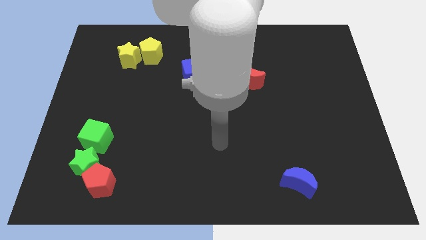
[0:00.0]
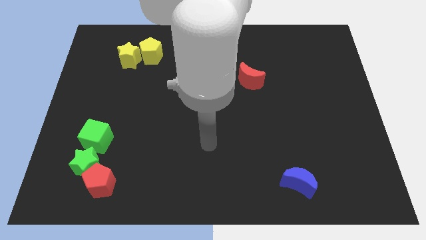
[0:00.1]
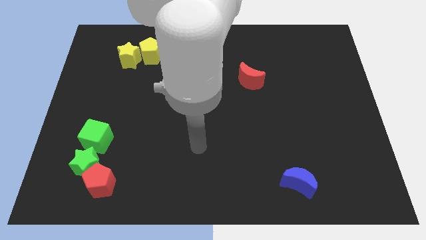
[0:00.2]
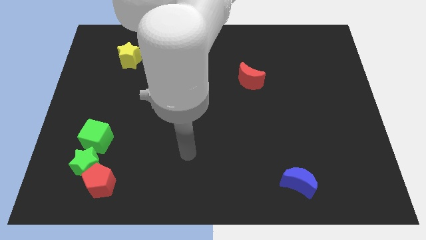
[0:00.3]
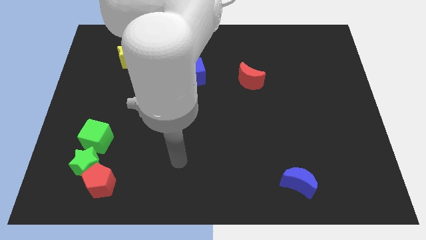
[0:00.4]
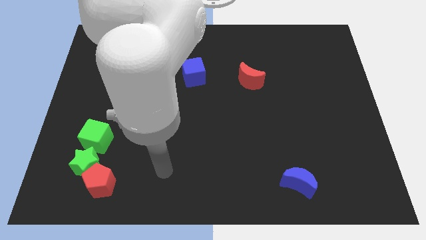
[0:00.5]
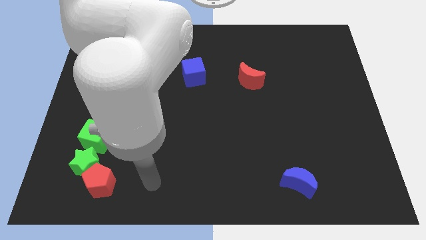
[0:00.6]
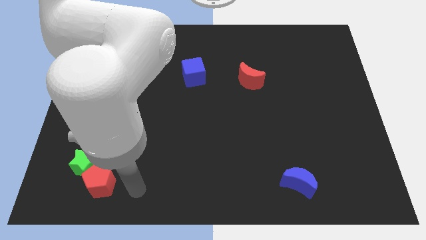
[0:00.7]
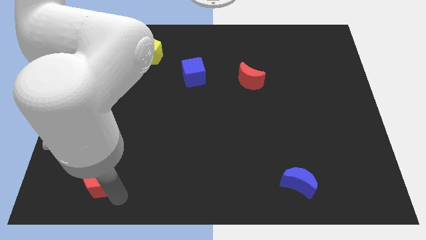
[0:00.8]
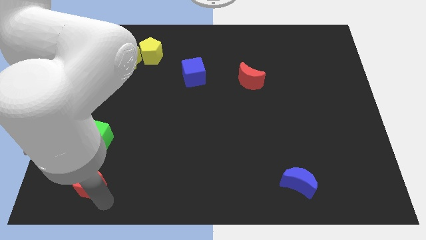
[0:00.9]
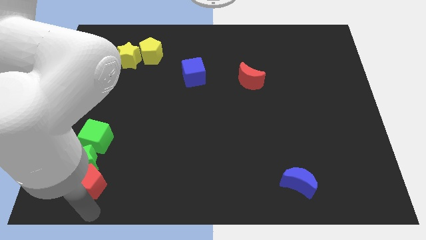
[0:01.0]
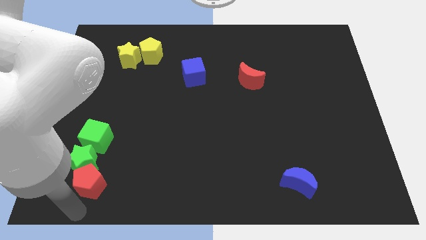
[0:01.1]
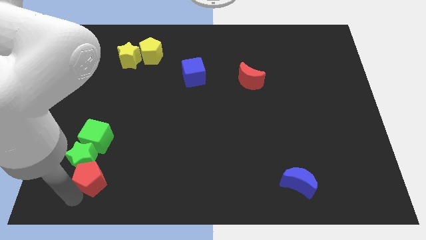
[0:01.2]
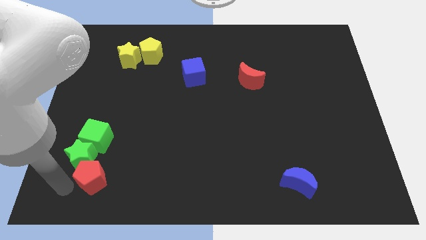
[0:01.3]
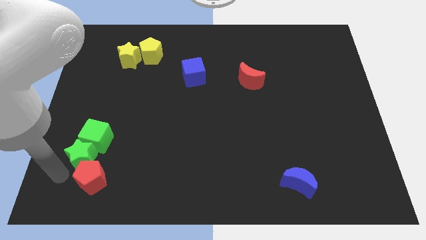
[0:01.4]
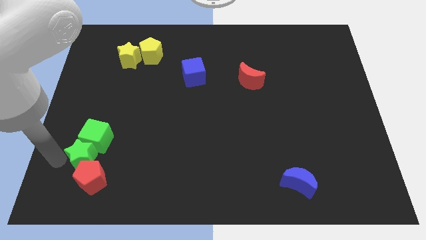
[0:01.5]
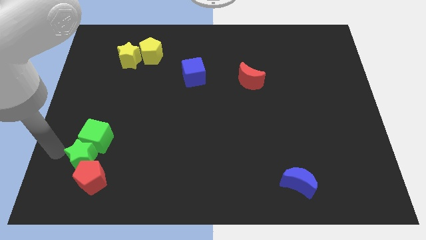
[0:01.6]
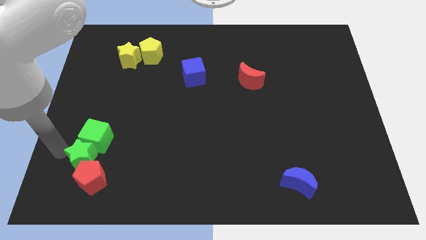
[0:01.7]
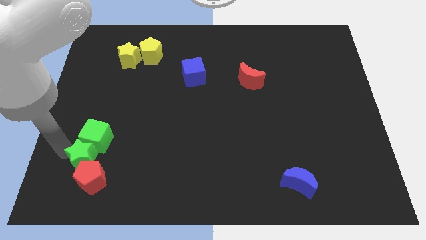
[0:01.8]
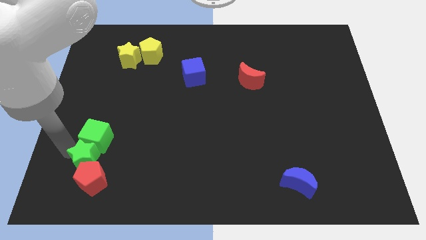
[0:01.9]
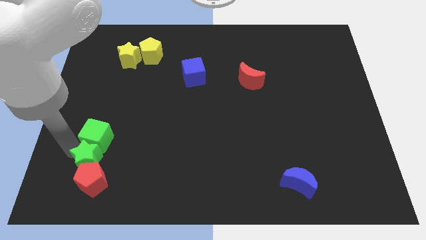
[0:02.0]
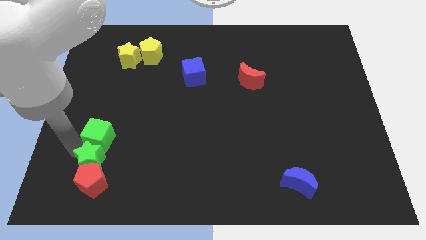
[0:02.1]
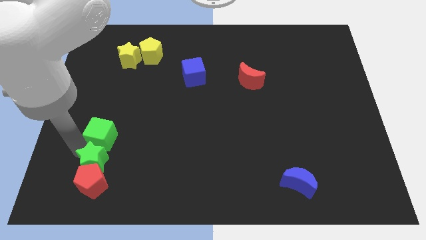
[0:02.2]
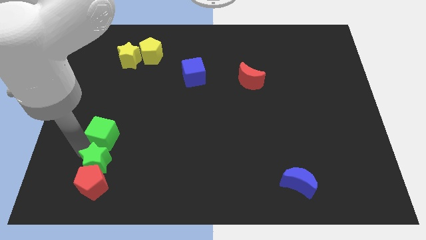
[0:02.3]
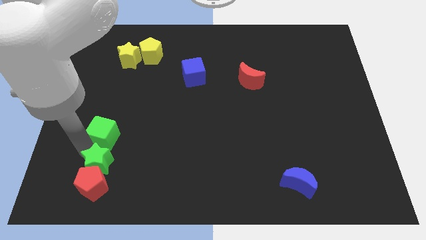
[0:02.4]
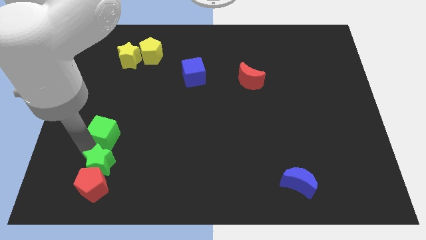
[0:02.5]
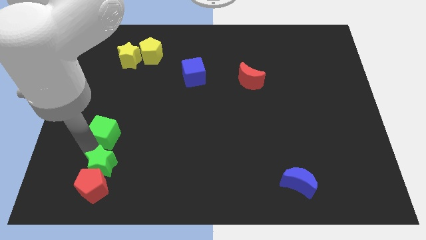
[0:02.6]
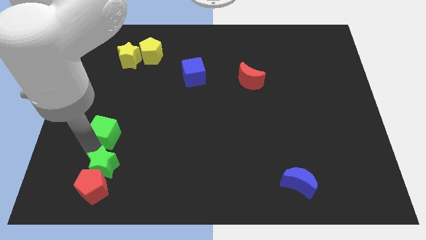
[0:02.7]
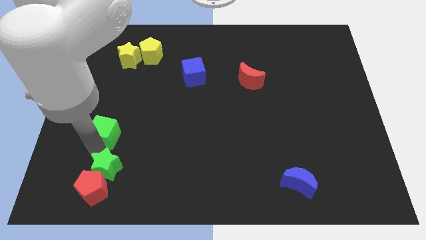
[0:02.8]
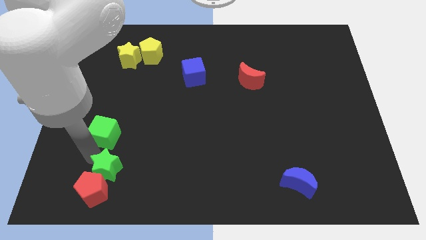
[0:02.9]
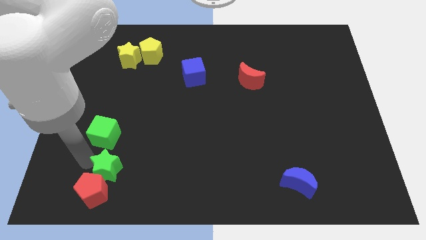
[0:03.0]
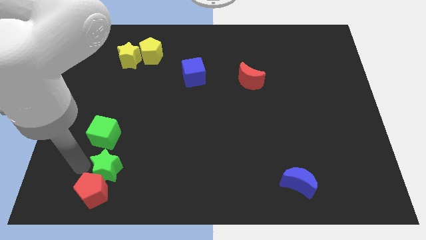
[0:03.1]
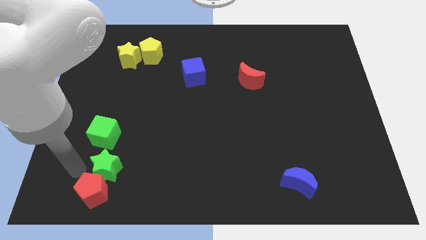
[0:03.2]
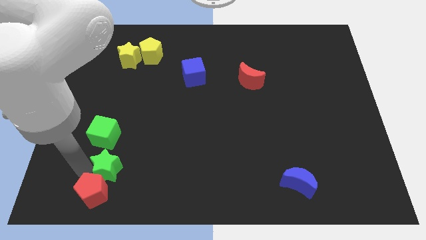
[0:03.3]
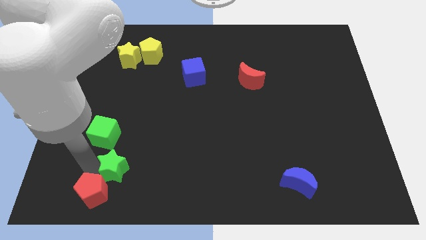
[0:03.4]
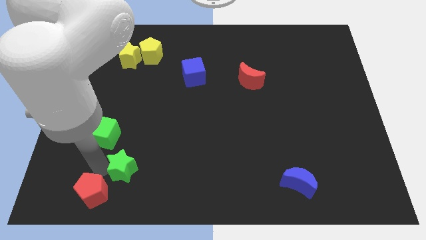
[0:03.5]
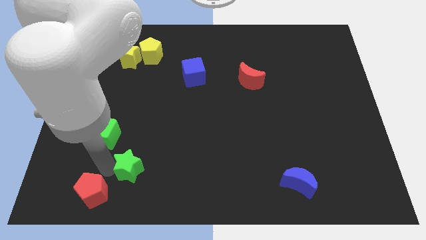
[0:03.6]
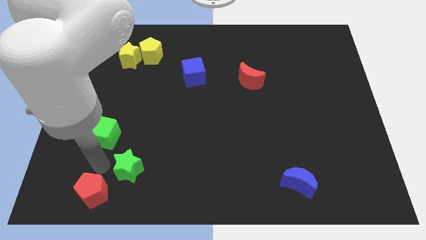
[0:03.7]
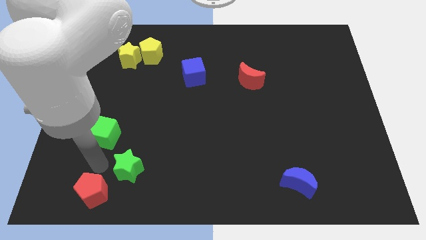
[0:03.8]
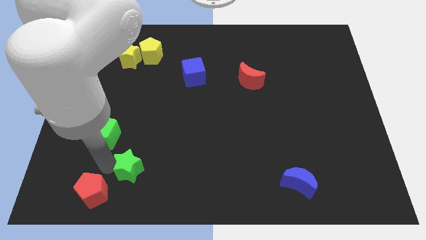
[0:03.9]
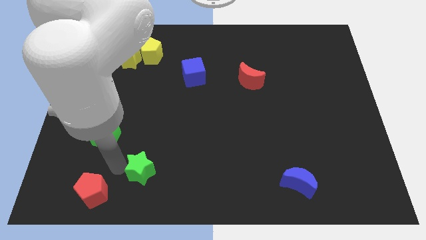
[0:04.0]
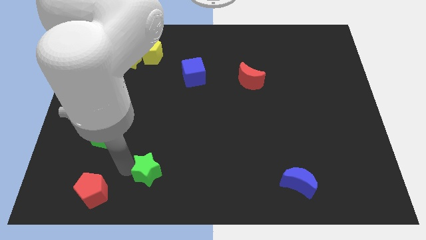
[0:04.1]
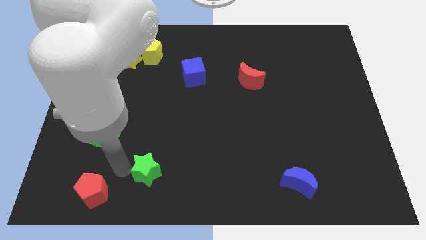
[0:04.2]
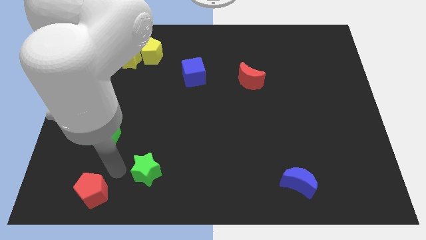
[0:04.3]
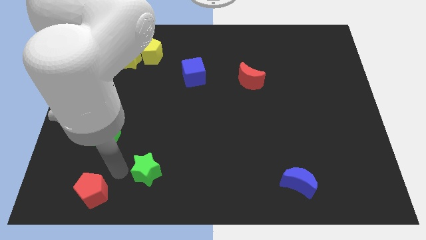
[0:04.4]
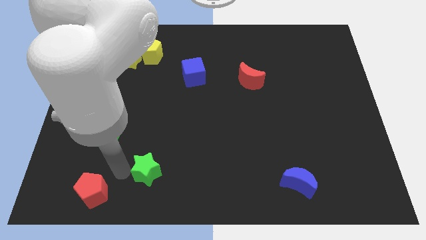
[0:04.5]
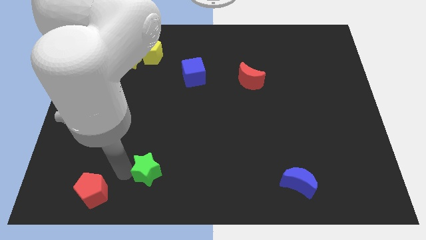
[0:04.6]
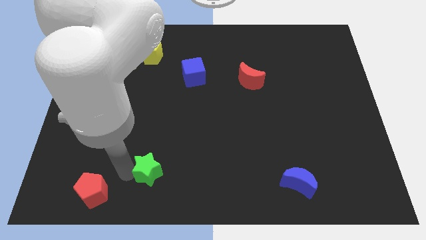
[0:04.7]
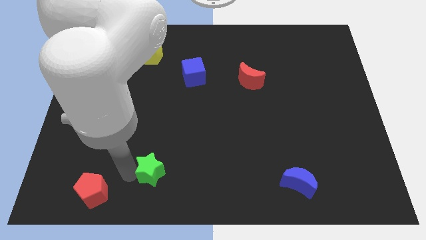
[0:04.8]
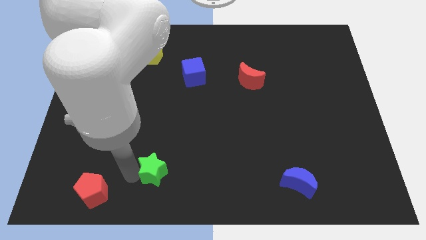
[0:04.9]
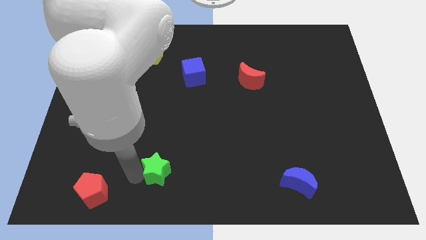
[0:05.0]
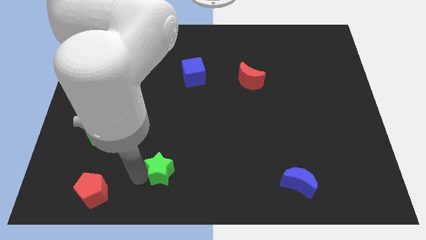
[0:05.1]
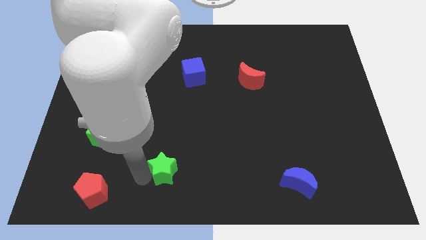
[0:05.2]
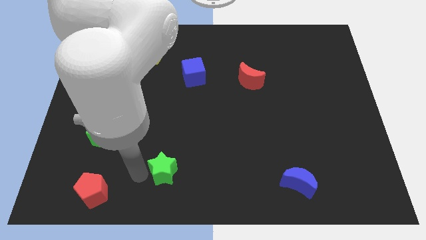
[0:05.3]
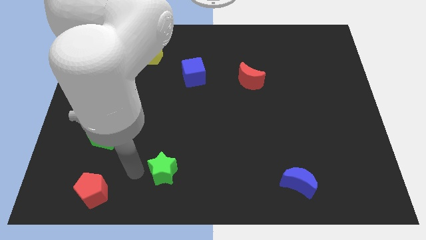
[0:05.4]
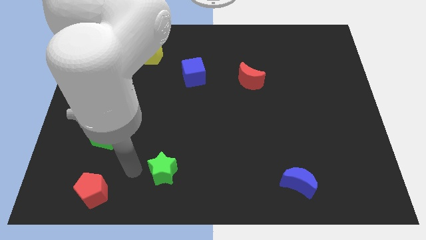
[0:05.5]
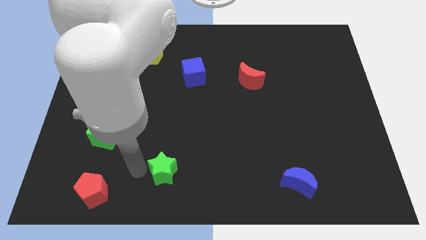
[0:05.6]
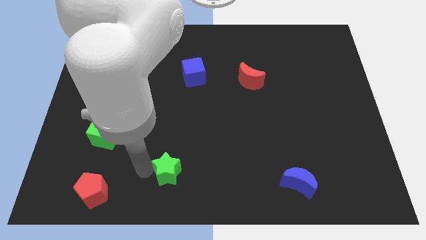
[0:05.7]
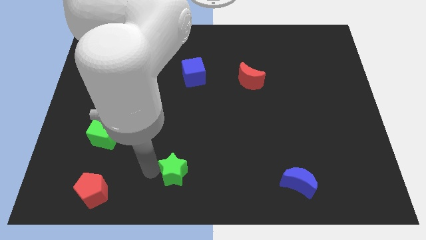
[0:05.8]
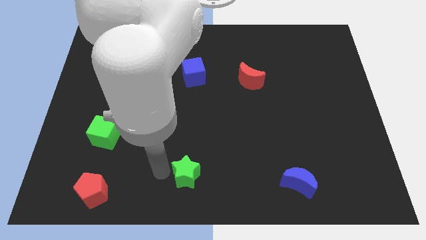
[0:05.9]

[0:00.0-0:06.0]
push the green star to the right

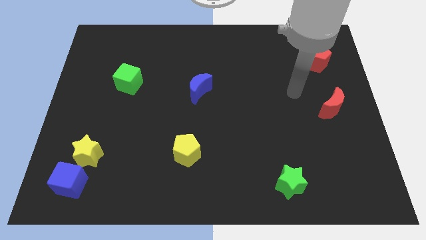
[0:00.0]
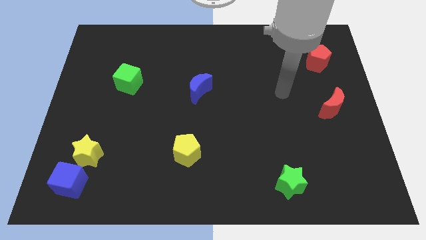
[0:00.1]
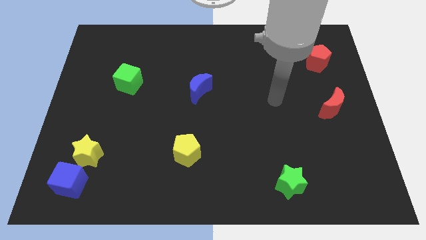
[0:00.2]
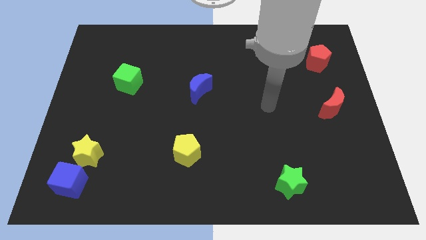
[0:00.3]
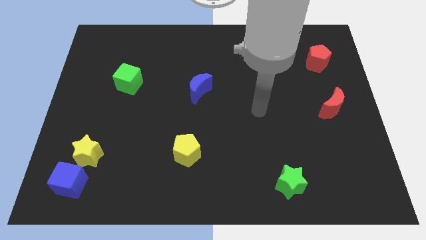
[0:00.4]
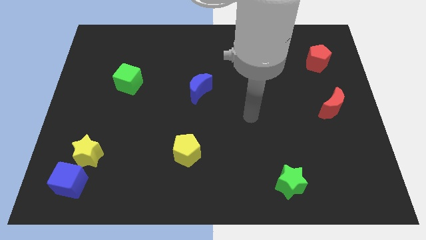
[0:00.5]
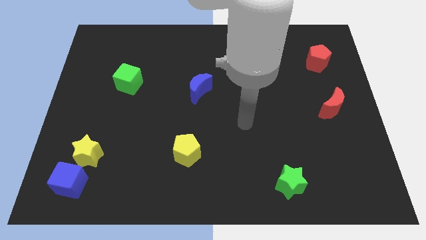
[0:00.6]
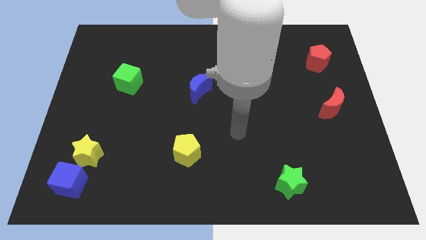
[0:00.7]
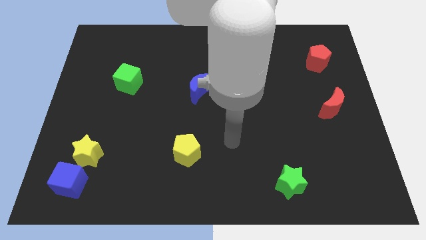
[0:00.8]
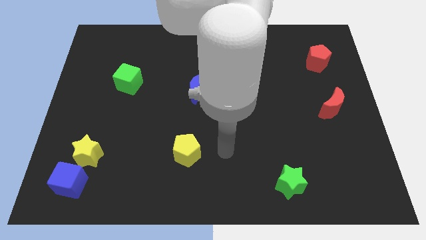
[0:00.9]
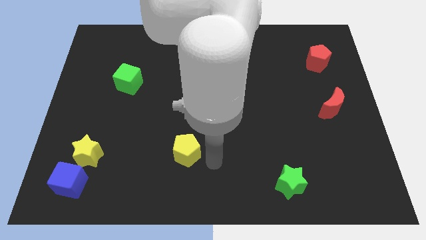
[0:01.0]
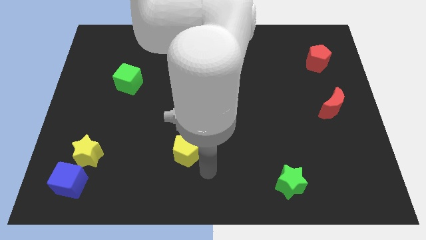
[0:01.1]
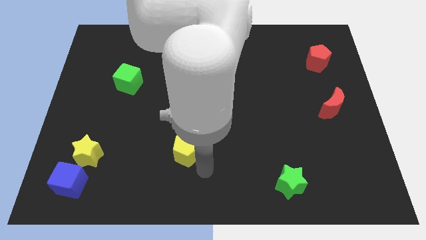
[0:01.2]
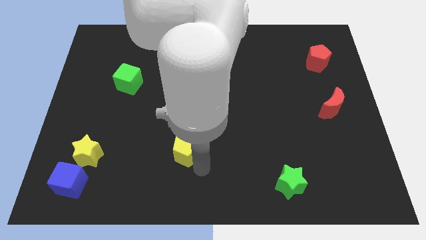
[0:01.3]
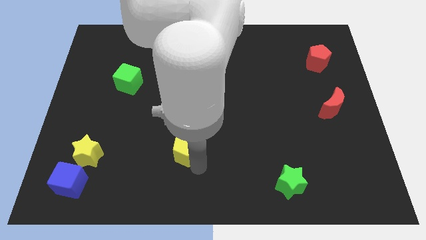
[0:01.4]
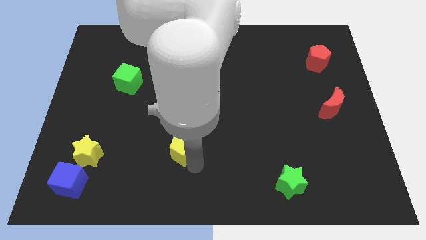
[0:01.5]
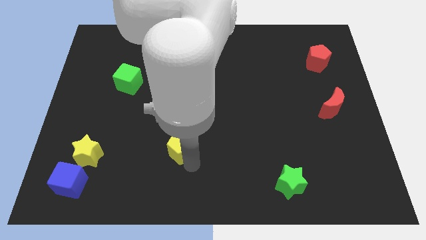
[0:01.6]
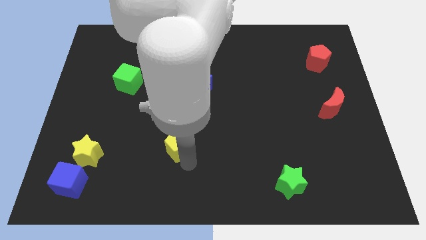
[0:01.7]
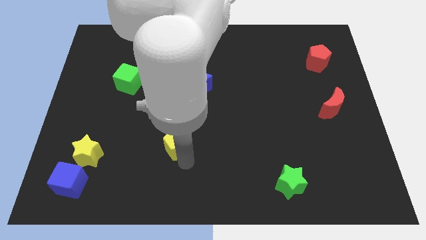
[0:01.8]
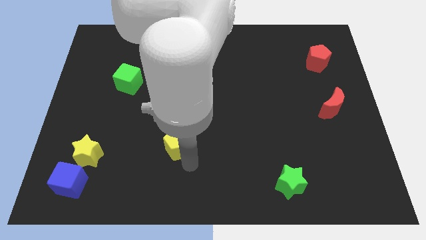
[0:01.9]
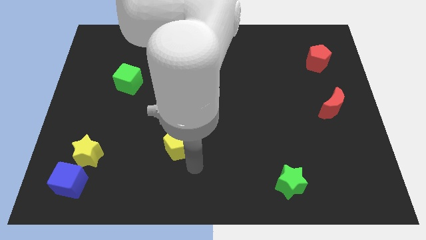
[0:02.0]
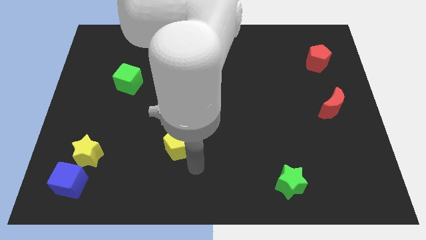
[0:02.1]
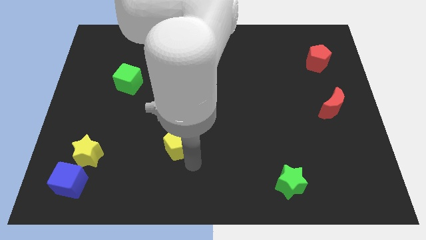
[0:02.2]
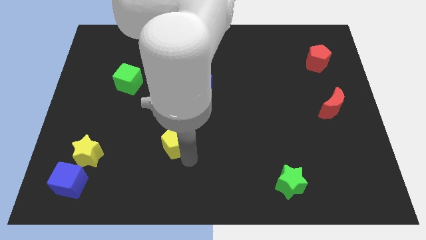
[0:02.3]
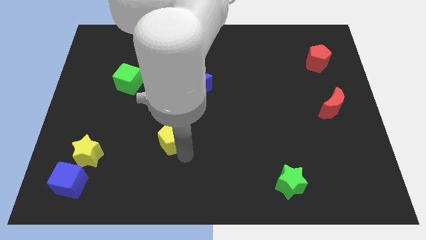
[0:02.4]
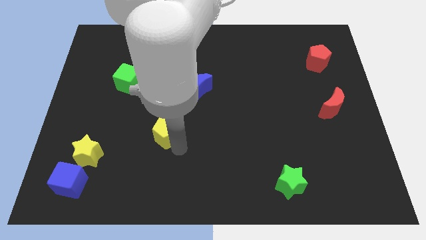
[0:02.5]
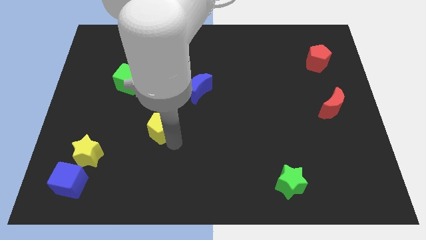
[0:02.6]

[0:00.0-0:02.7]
slightly move the yellow pentagon upwards and to the left
